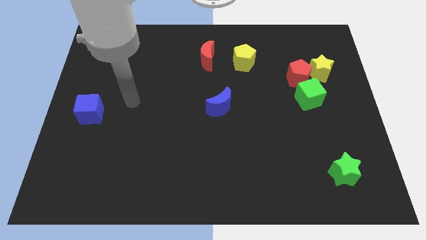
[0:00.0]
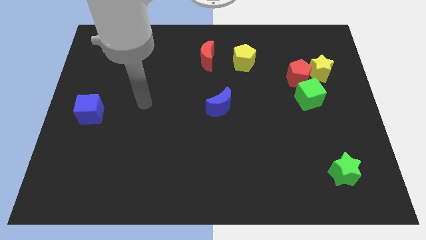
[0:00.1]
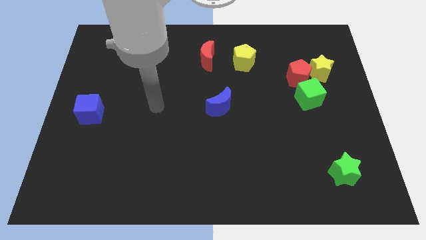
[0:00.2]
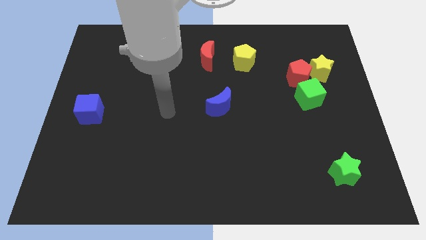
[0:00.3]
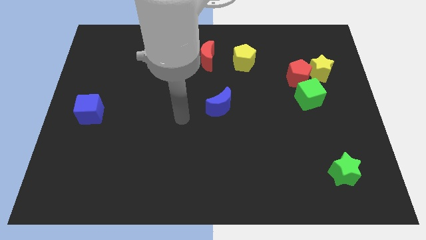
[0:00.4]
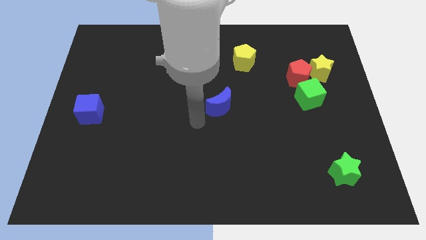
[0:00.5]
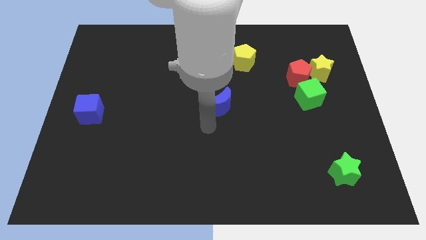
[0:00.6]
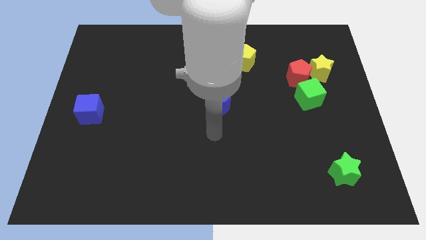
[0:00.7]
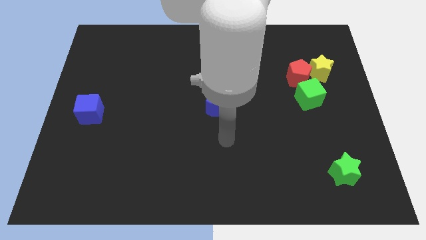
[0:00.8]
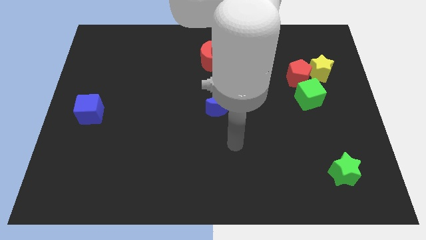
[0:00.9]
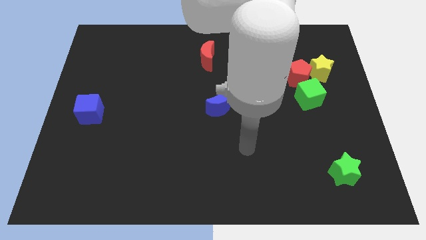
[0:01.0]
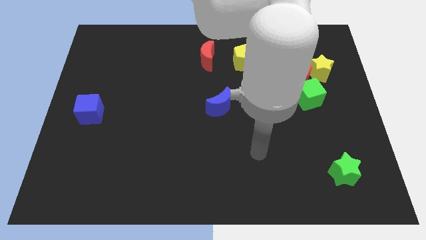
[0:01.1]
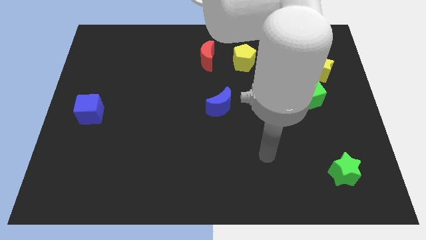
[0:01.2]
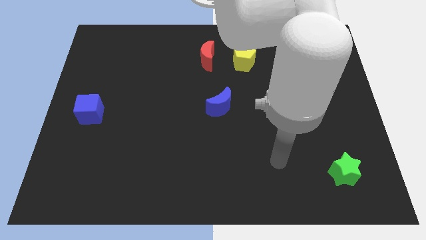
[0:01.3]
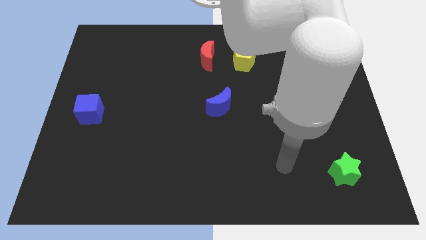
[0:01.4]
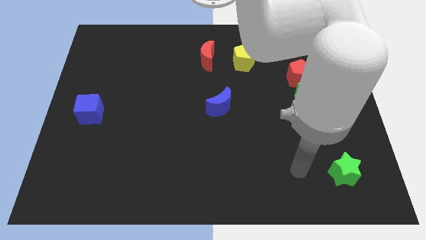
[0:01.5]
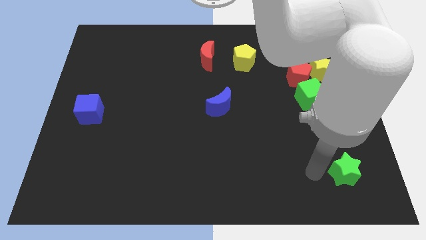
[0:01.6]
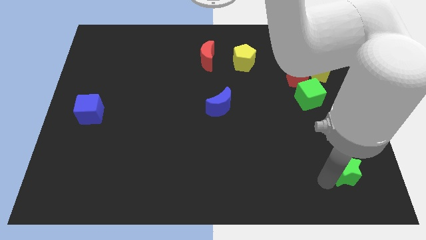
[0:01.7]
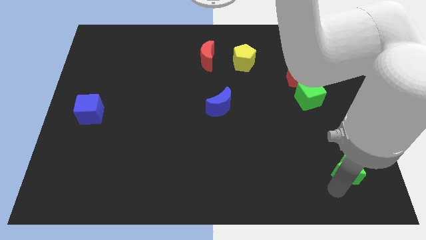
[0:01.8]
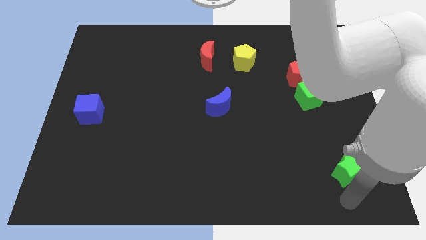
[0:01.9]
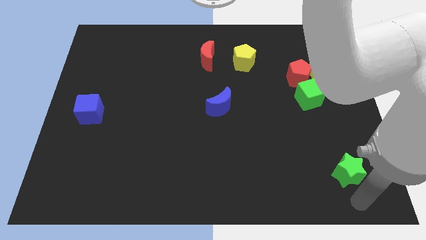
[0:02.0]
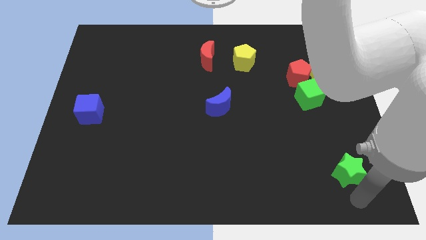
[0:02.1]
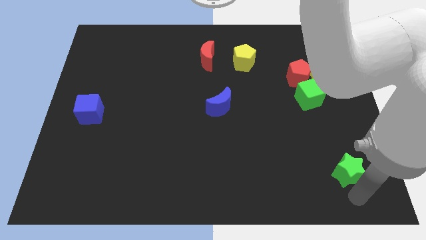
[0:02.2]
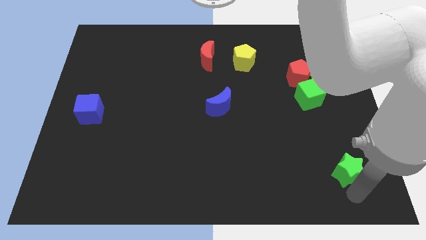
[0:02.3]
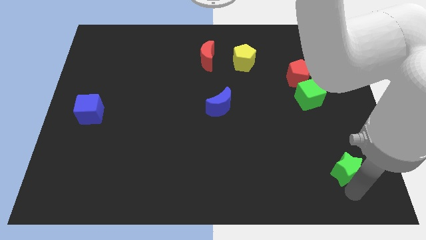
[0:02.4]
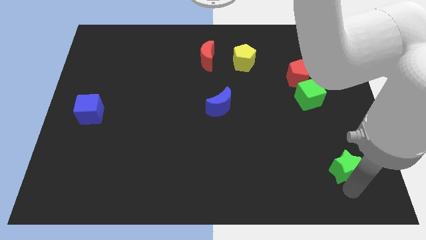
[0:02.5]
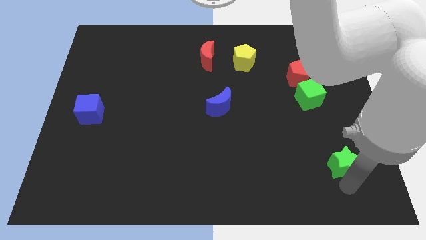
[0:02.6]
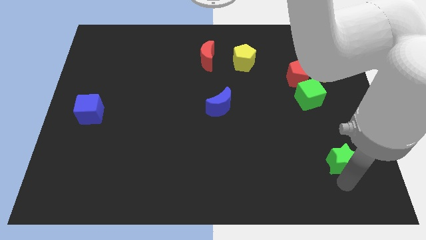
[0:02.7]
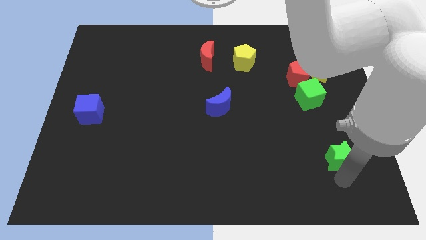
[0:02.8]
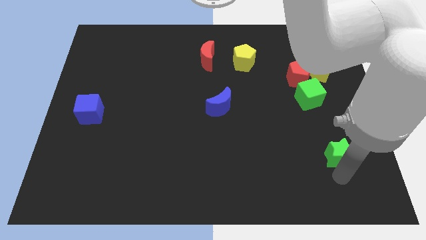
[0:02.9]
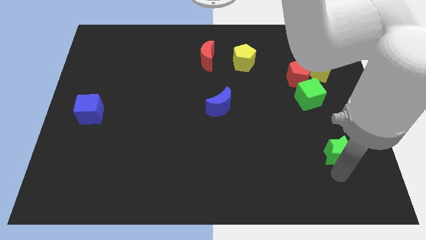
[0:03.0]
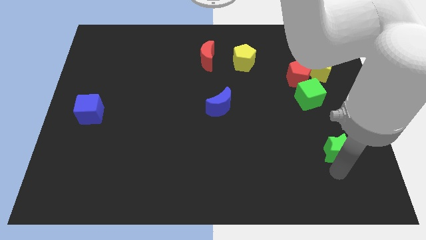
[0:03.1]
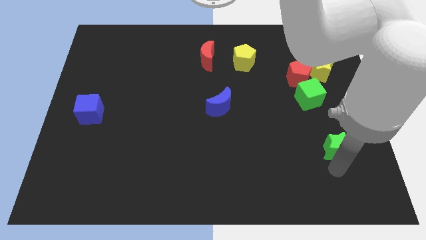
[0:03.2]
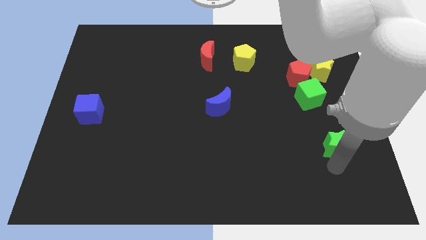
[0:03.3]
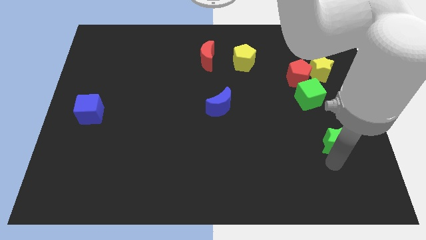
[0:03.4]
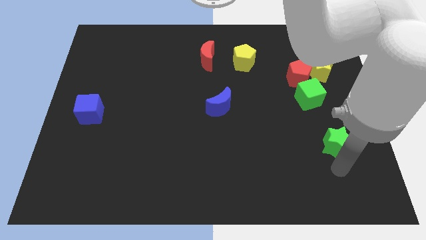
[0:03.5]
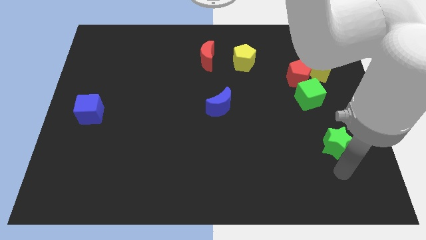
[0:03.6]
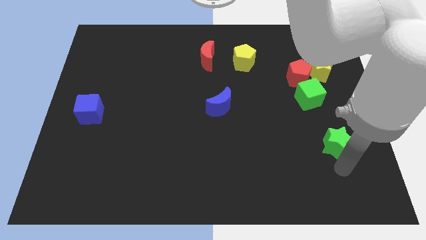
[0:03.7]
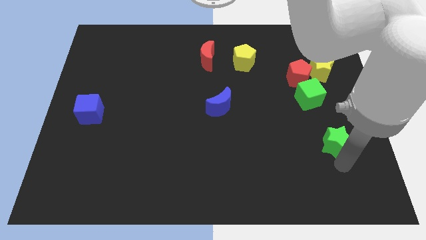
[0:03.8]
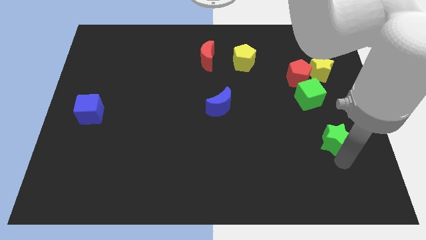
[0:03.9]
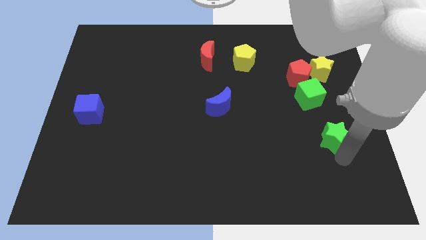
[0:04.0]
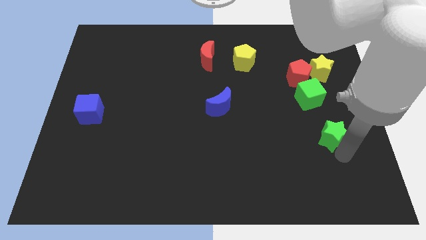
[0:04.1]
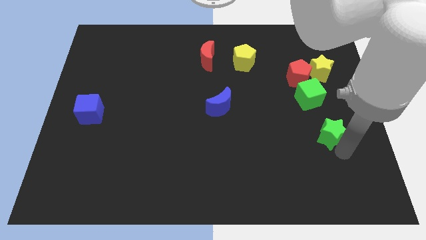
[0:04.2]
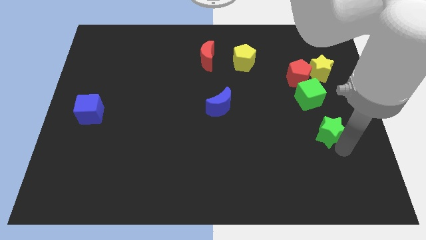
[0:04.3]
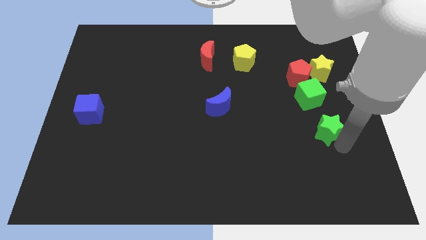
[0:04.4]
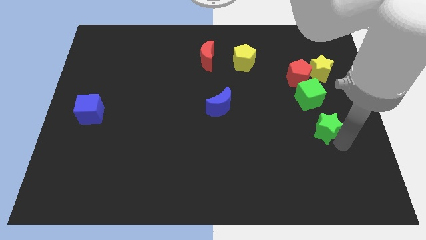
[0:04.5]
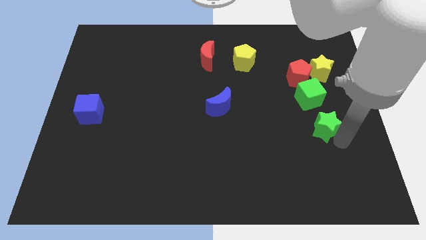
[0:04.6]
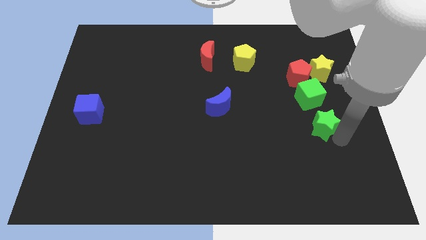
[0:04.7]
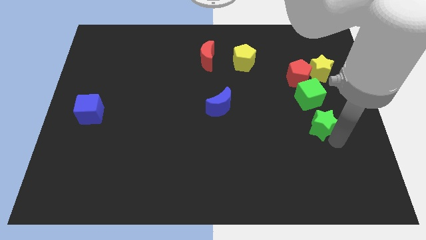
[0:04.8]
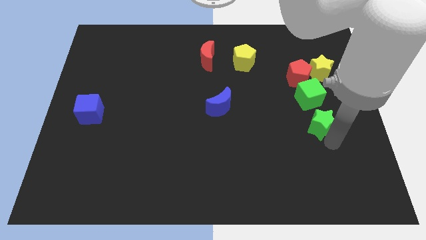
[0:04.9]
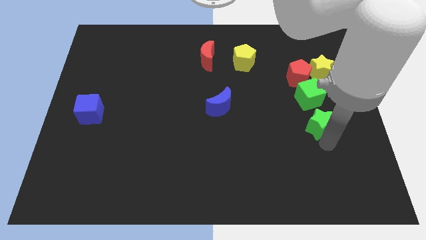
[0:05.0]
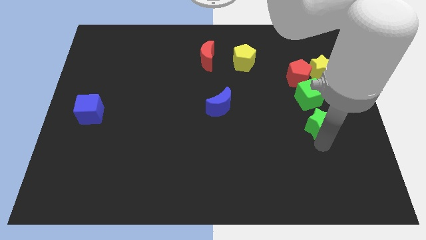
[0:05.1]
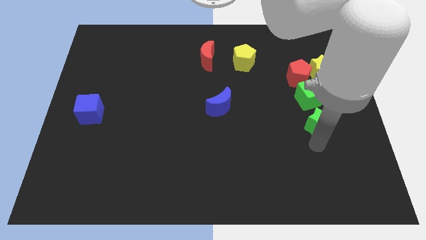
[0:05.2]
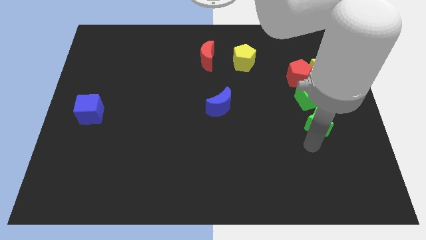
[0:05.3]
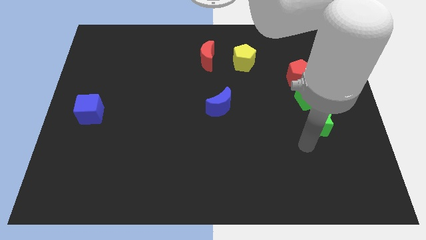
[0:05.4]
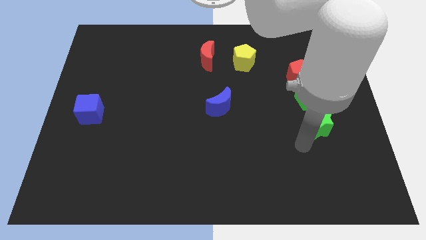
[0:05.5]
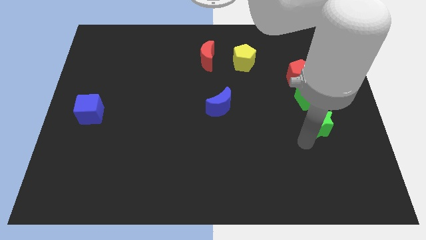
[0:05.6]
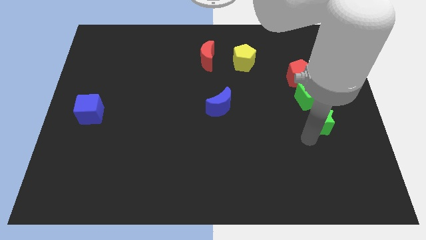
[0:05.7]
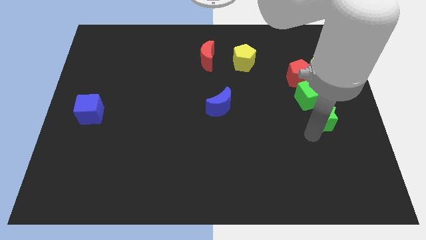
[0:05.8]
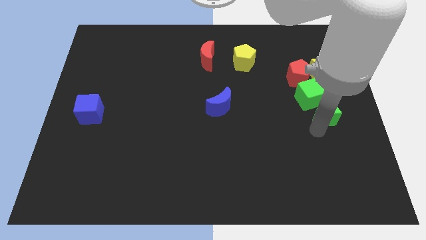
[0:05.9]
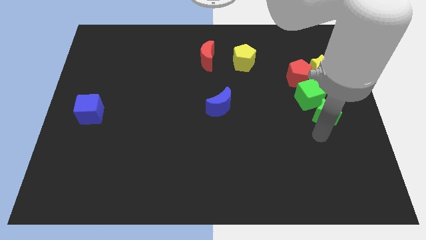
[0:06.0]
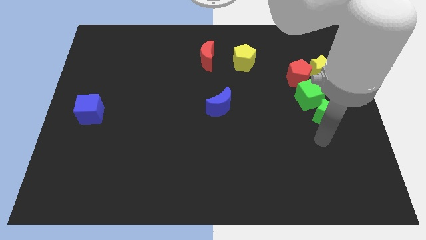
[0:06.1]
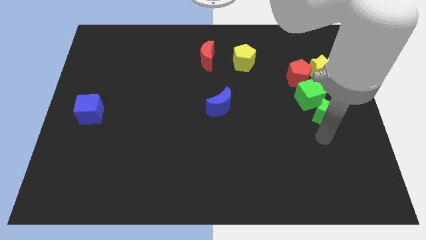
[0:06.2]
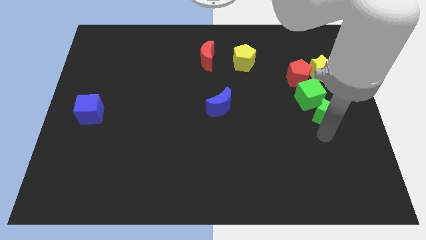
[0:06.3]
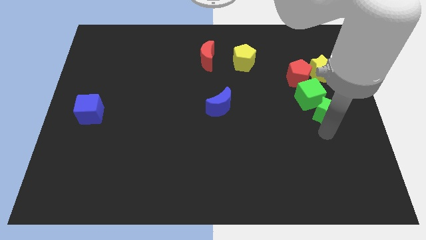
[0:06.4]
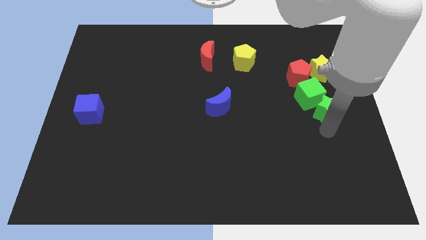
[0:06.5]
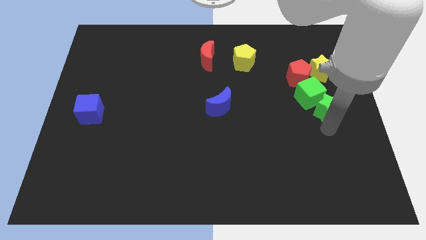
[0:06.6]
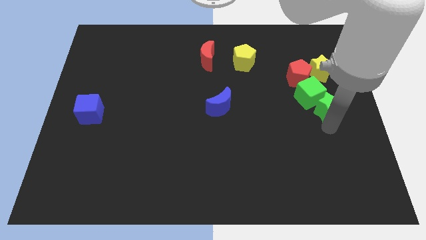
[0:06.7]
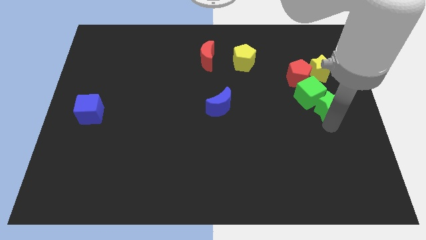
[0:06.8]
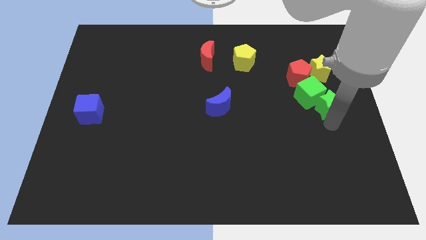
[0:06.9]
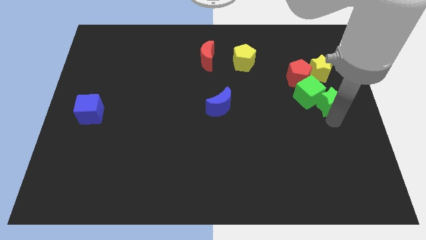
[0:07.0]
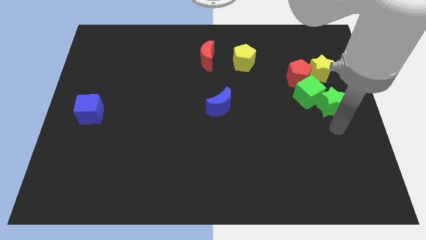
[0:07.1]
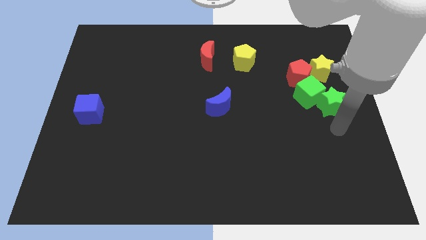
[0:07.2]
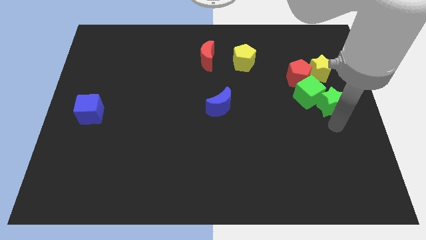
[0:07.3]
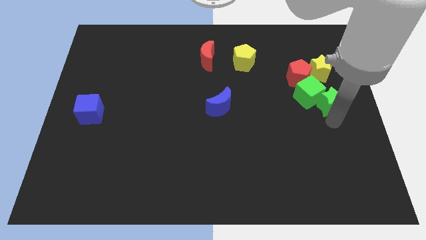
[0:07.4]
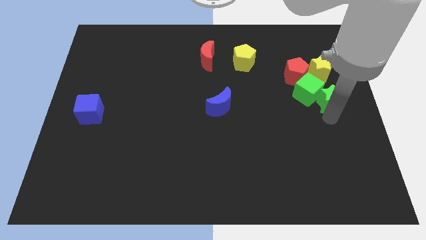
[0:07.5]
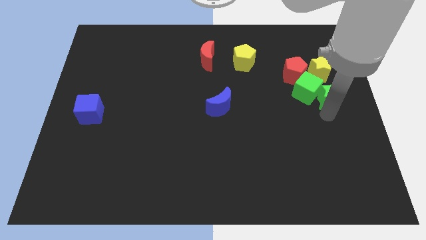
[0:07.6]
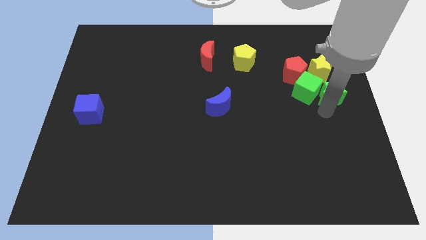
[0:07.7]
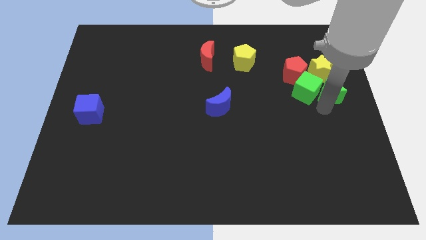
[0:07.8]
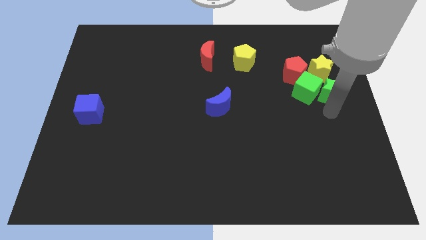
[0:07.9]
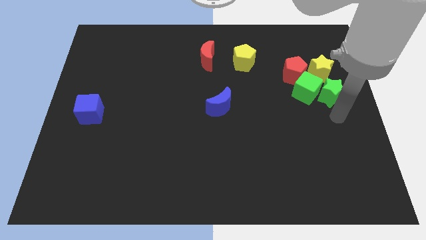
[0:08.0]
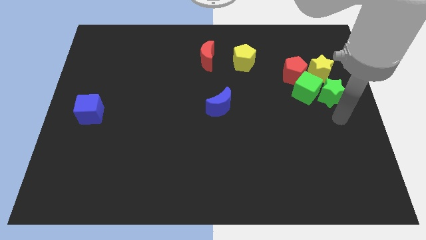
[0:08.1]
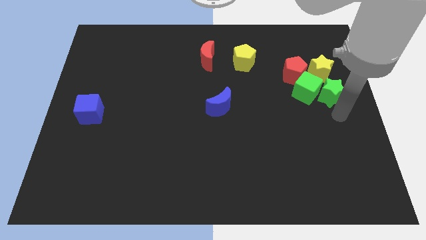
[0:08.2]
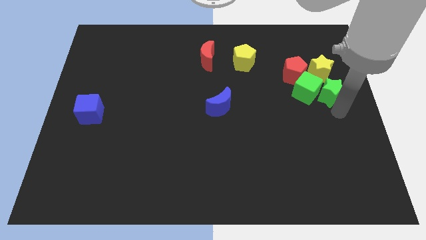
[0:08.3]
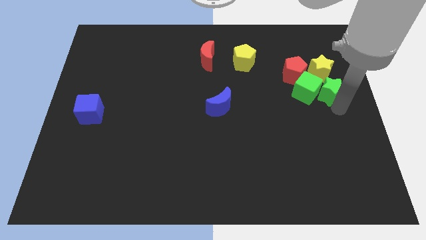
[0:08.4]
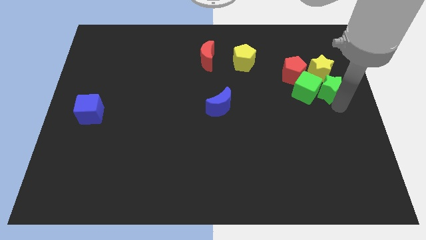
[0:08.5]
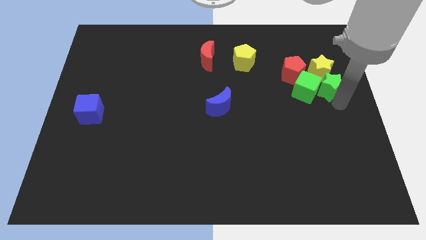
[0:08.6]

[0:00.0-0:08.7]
push the green star towards the yellow star
